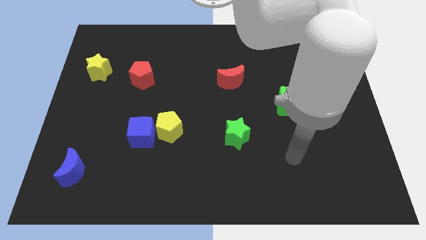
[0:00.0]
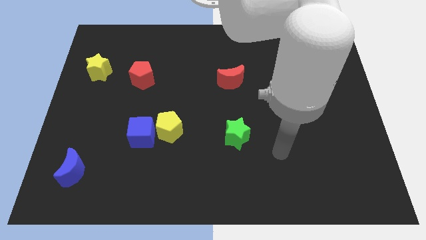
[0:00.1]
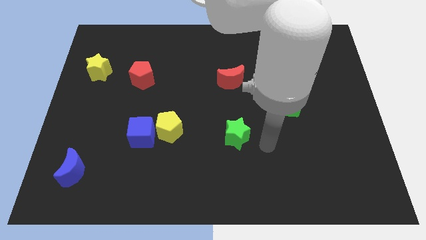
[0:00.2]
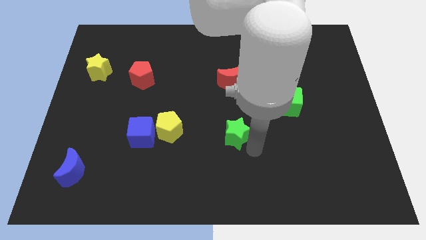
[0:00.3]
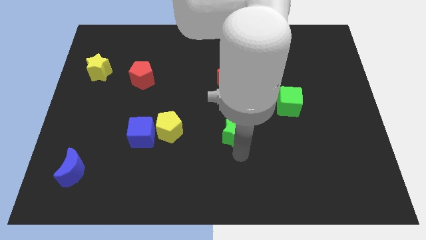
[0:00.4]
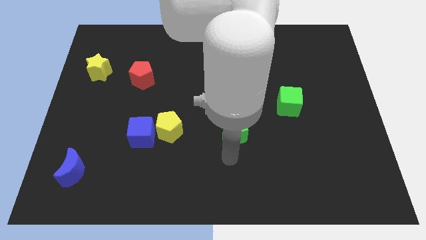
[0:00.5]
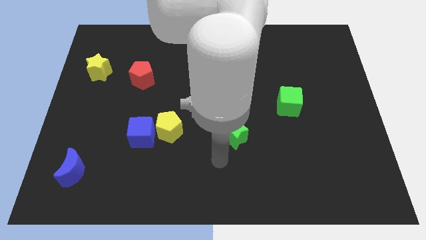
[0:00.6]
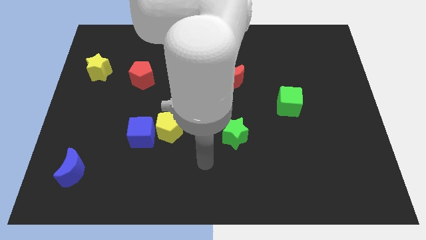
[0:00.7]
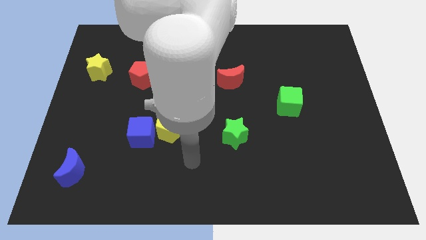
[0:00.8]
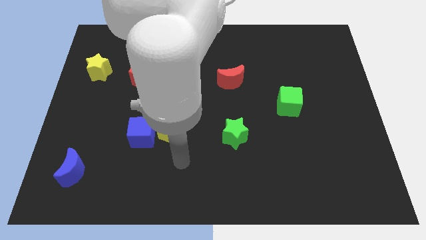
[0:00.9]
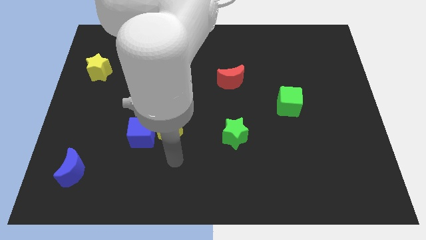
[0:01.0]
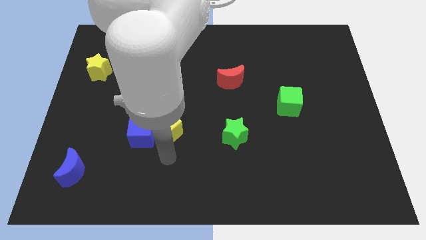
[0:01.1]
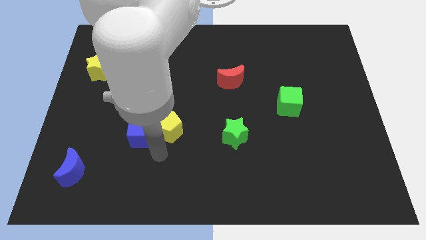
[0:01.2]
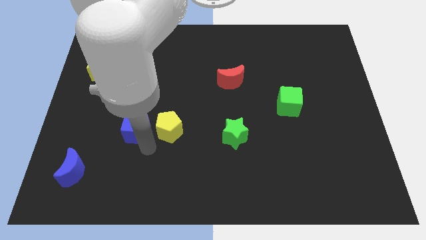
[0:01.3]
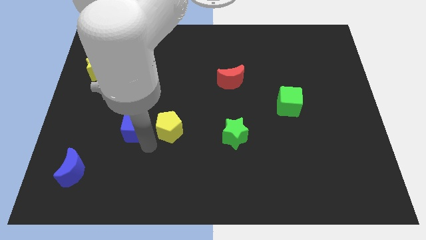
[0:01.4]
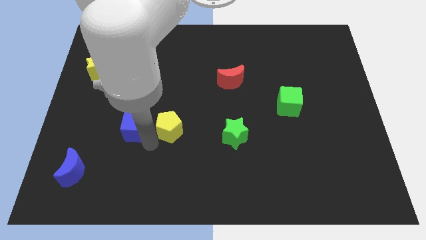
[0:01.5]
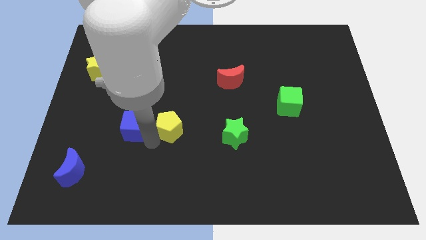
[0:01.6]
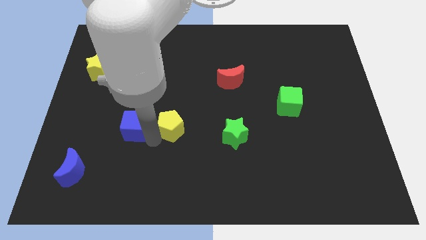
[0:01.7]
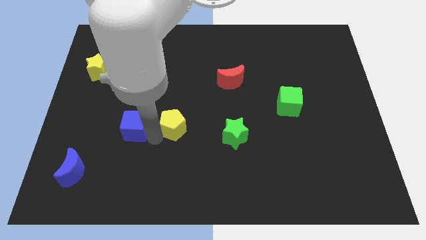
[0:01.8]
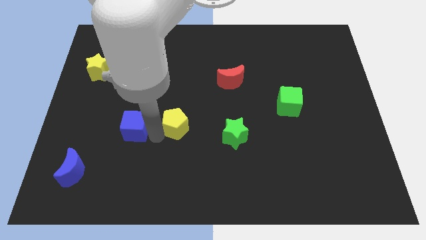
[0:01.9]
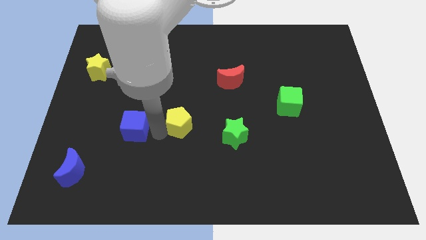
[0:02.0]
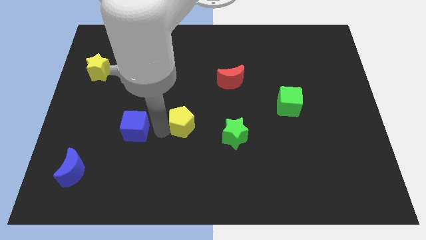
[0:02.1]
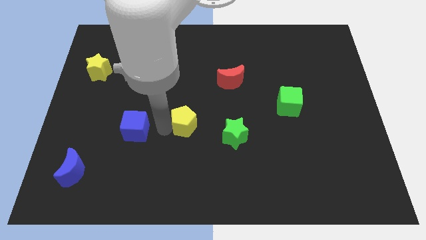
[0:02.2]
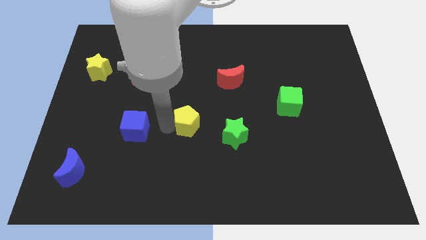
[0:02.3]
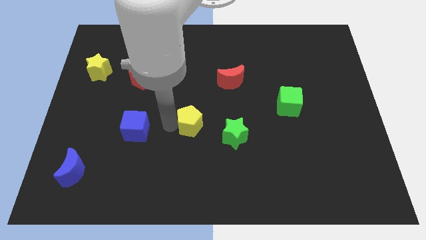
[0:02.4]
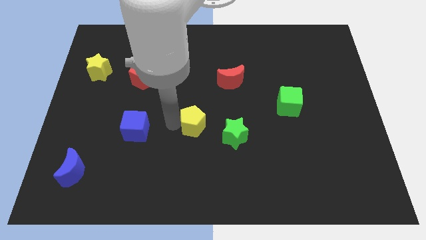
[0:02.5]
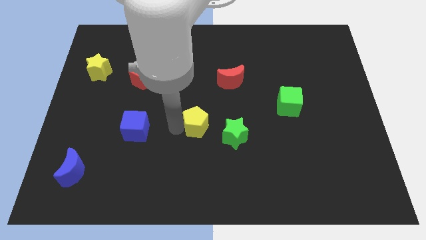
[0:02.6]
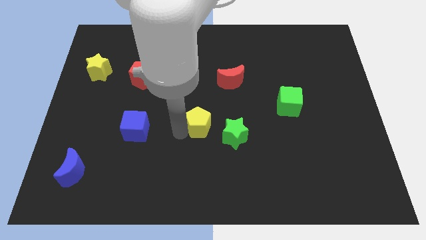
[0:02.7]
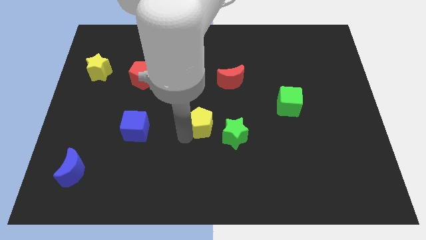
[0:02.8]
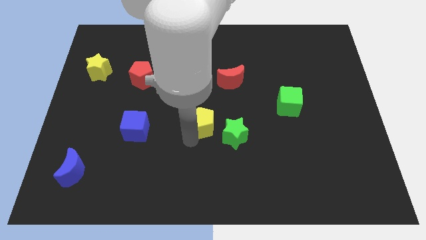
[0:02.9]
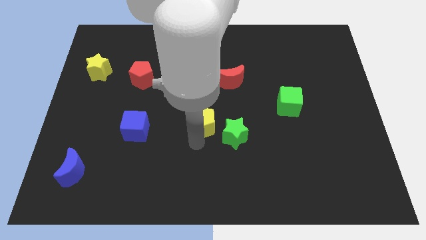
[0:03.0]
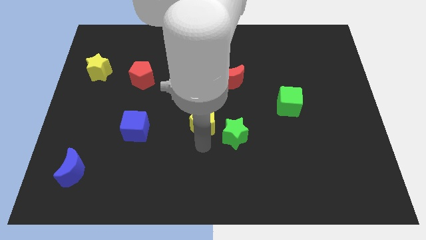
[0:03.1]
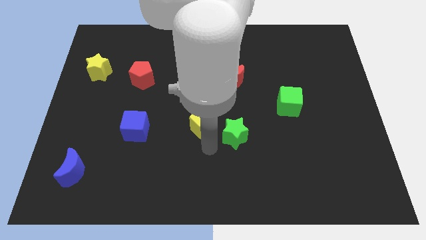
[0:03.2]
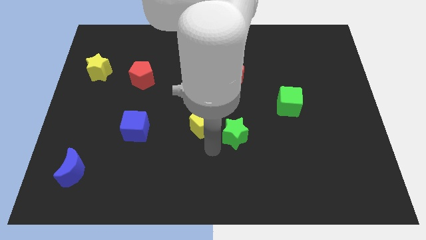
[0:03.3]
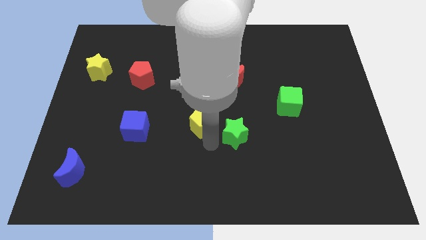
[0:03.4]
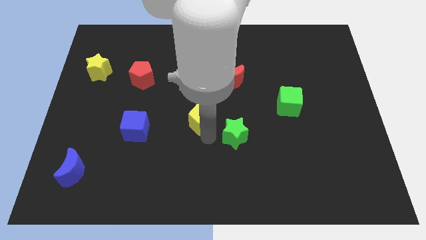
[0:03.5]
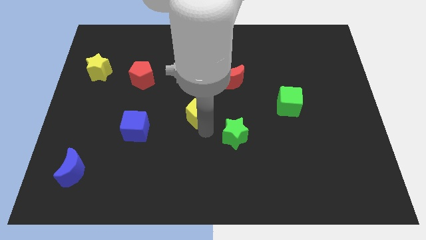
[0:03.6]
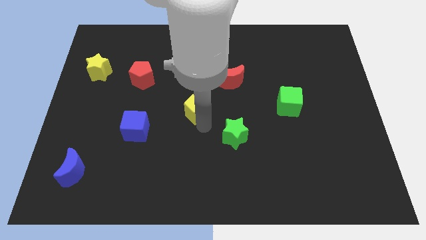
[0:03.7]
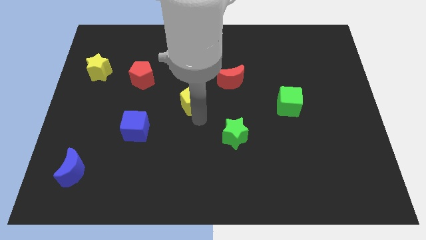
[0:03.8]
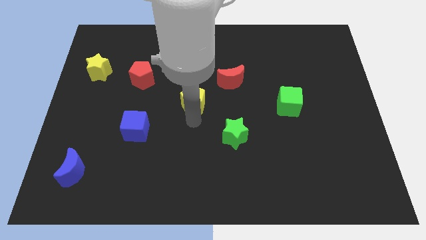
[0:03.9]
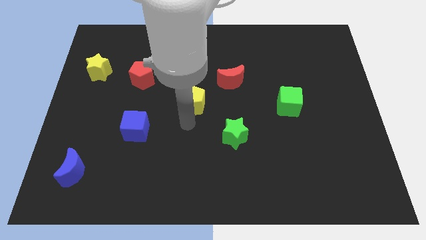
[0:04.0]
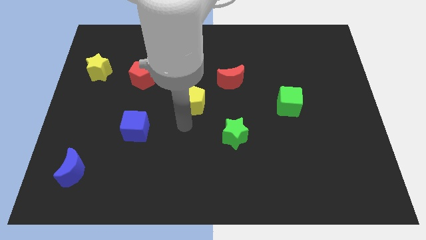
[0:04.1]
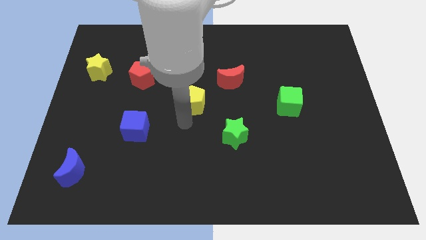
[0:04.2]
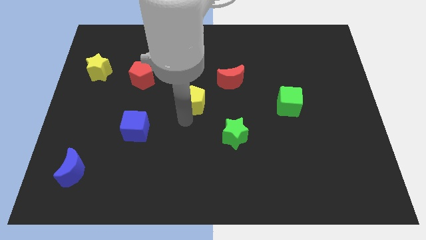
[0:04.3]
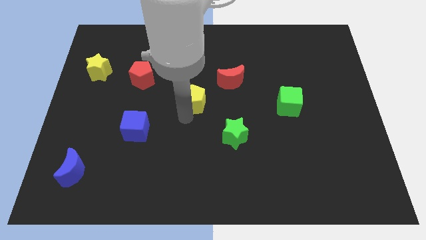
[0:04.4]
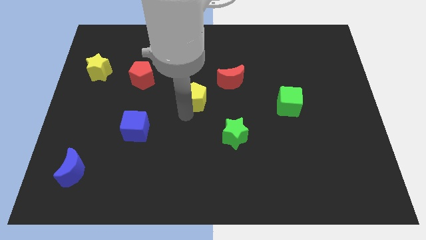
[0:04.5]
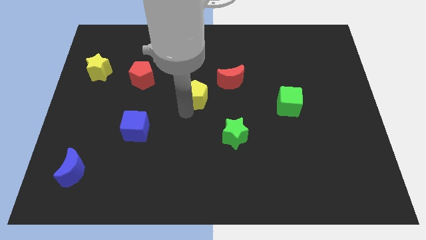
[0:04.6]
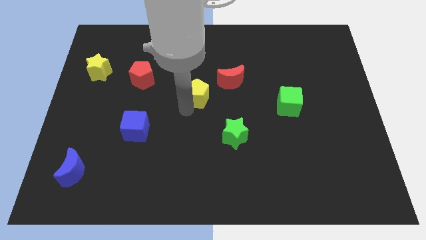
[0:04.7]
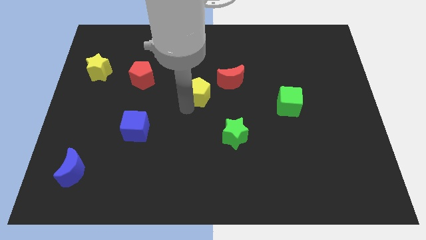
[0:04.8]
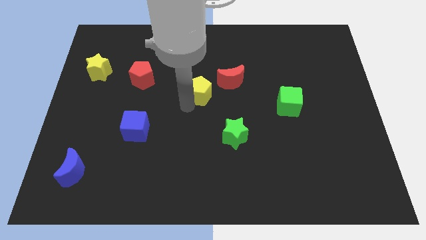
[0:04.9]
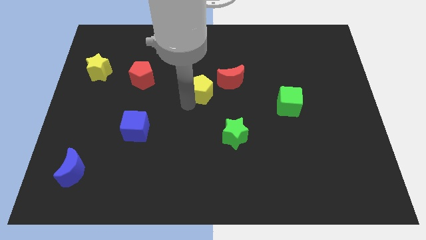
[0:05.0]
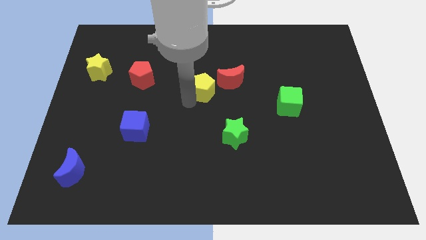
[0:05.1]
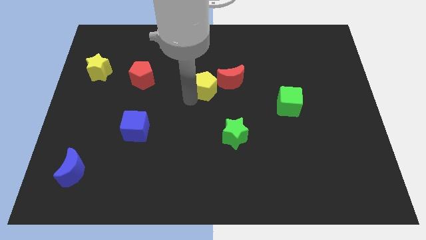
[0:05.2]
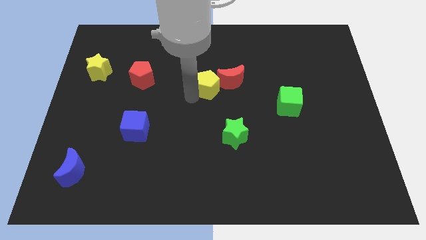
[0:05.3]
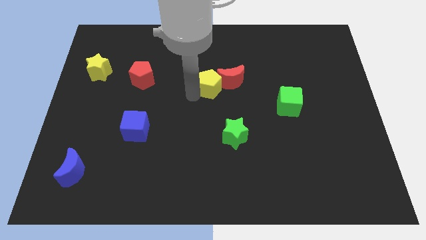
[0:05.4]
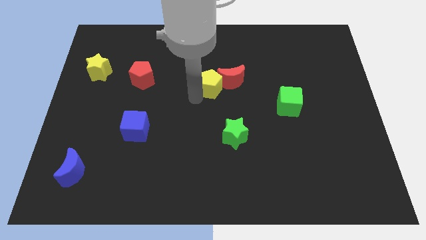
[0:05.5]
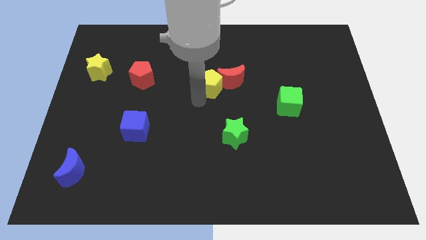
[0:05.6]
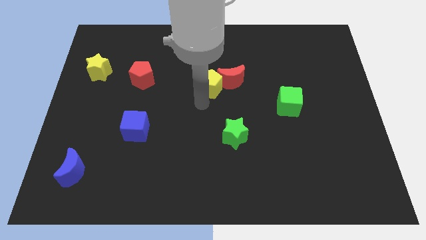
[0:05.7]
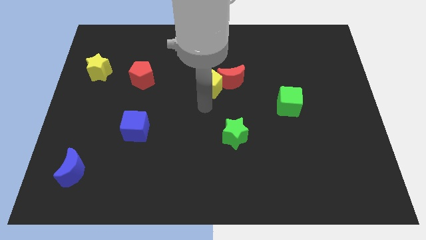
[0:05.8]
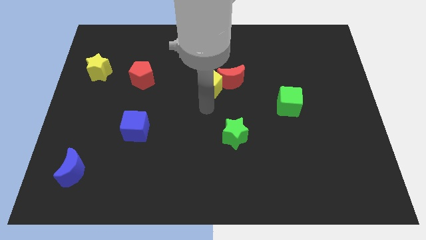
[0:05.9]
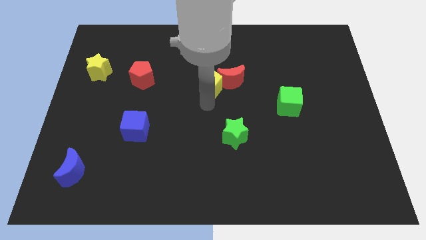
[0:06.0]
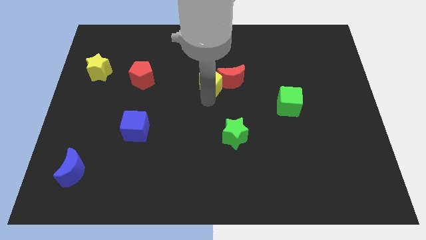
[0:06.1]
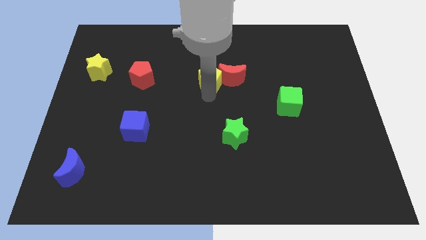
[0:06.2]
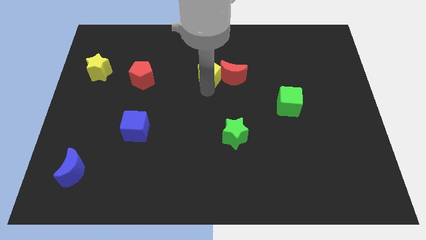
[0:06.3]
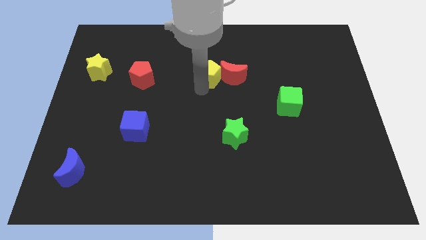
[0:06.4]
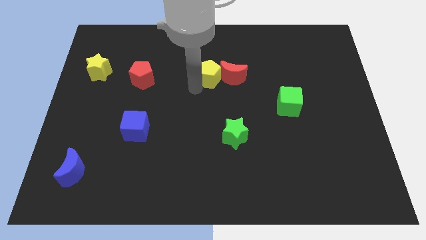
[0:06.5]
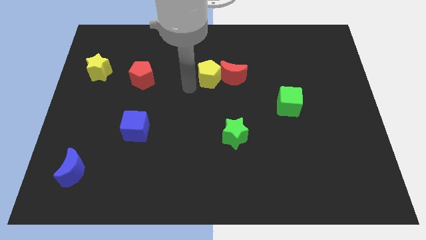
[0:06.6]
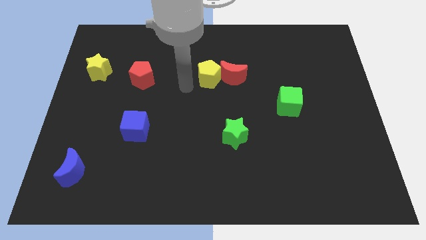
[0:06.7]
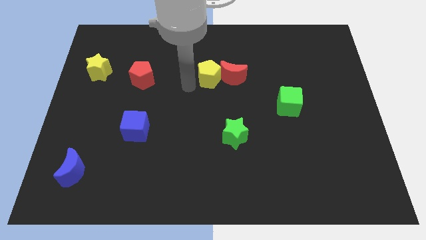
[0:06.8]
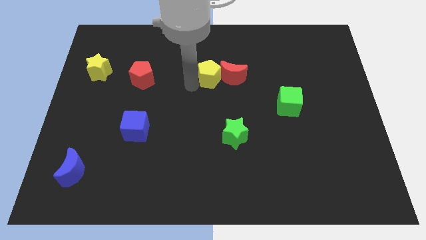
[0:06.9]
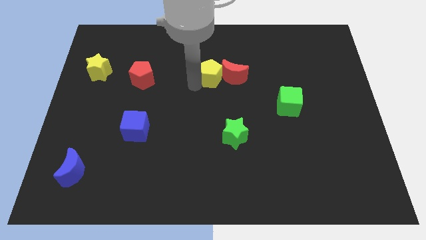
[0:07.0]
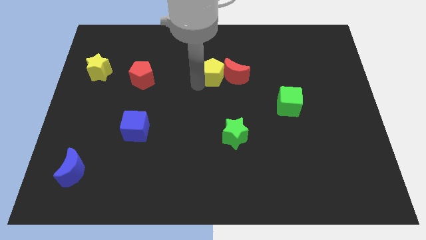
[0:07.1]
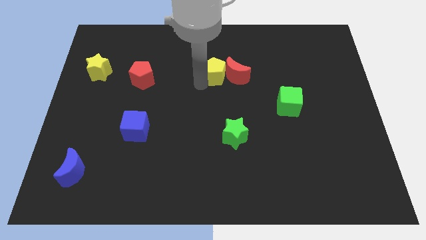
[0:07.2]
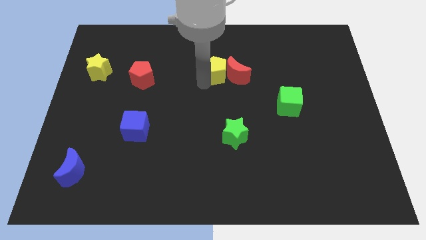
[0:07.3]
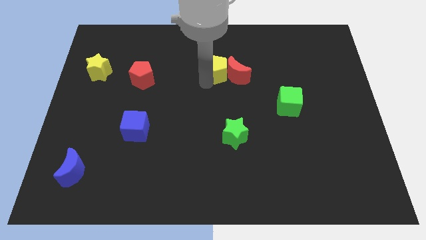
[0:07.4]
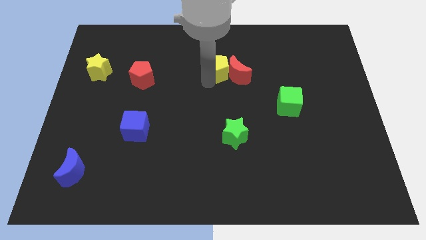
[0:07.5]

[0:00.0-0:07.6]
move the yellow pentagon upwards and right

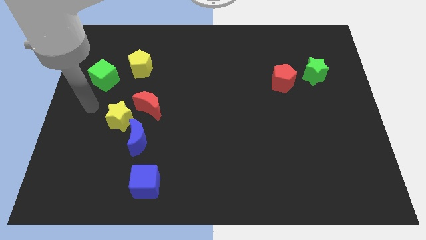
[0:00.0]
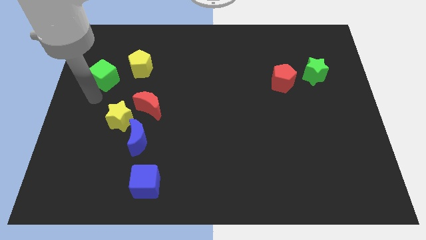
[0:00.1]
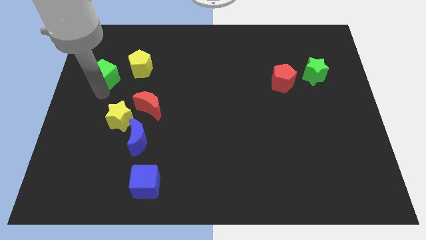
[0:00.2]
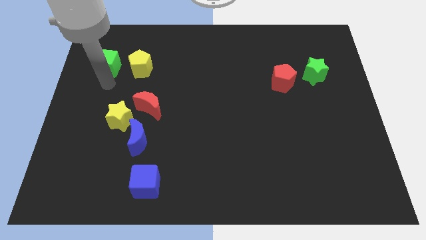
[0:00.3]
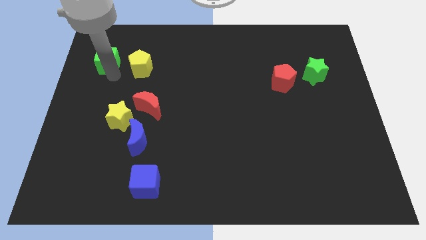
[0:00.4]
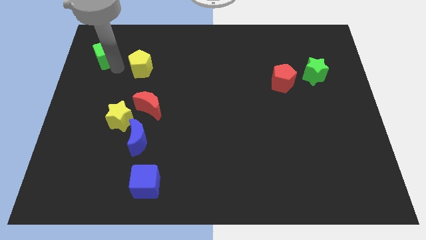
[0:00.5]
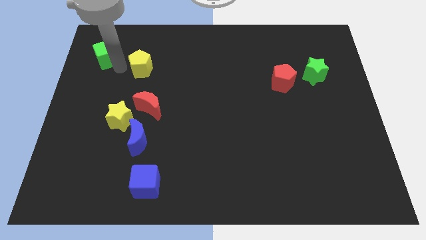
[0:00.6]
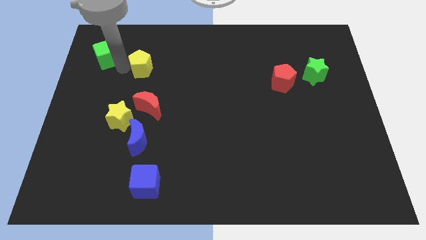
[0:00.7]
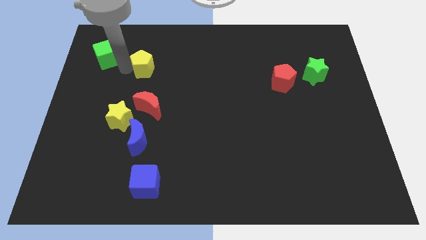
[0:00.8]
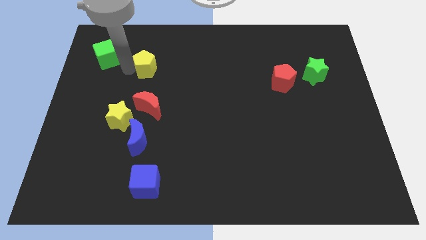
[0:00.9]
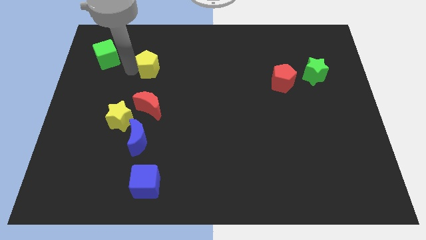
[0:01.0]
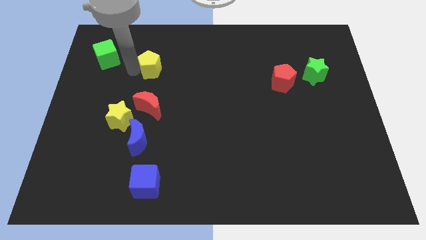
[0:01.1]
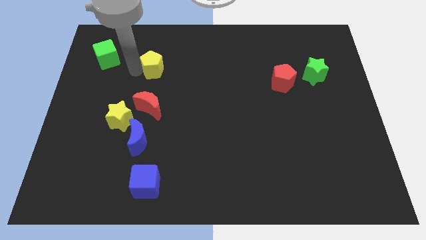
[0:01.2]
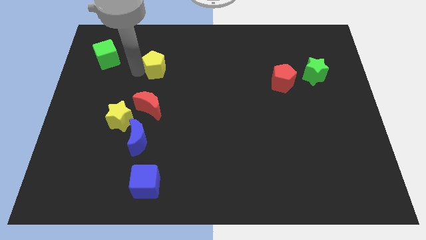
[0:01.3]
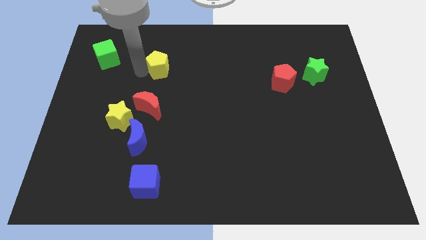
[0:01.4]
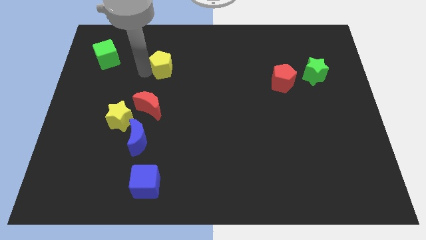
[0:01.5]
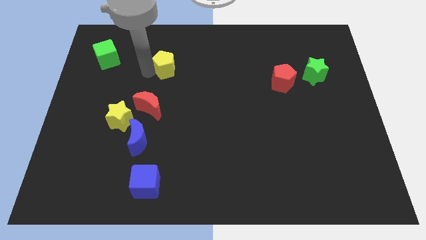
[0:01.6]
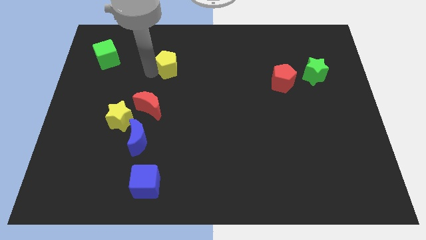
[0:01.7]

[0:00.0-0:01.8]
slightly push the yellow pentagon right
